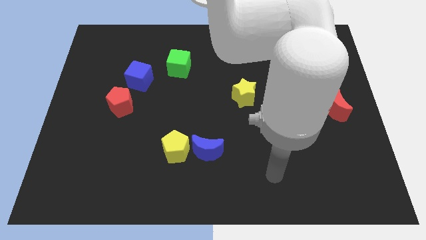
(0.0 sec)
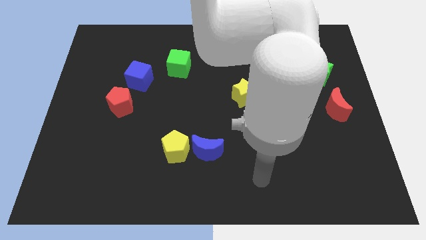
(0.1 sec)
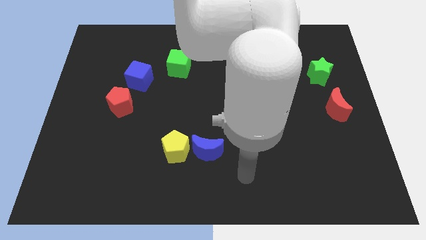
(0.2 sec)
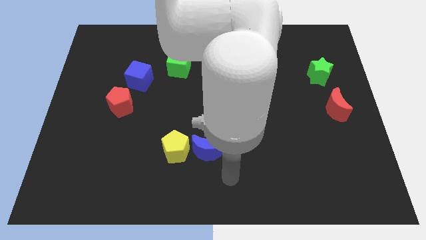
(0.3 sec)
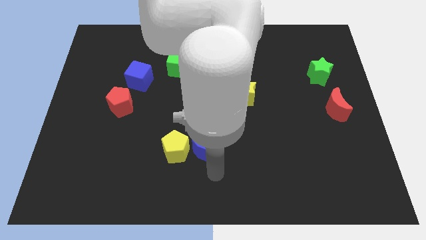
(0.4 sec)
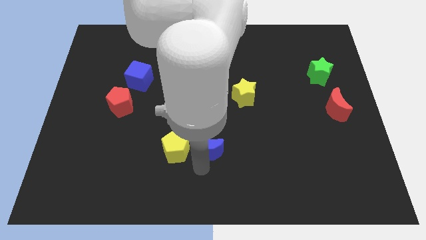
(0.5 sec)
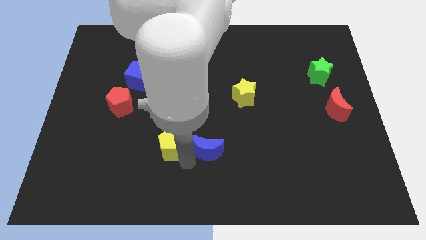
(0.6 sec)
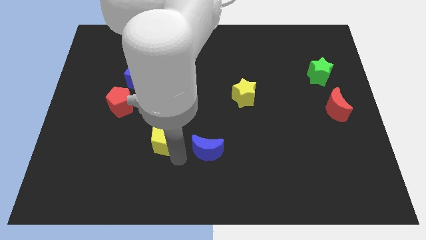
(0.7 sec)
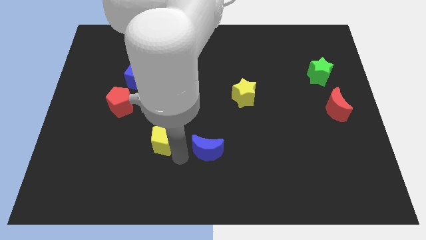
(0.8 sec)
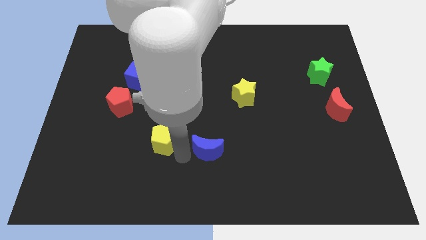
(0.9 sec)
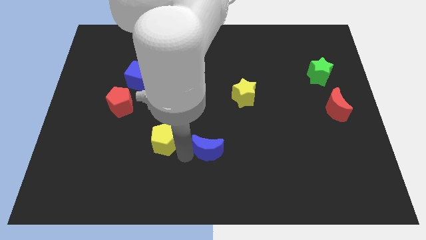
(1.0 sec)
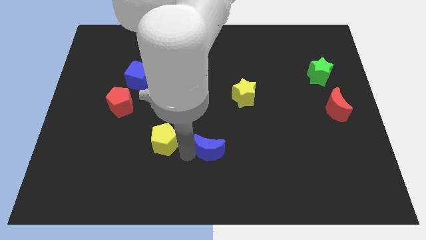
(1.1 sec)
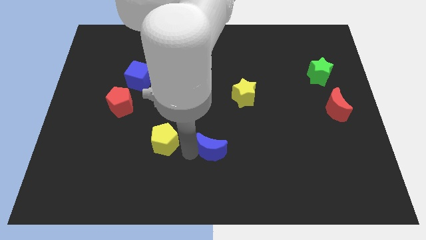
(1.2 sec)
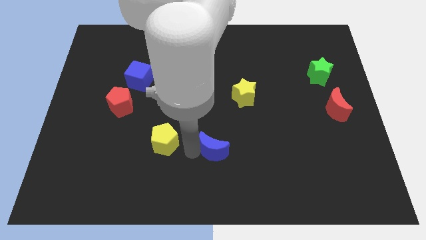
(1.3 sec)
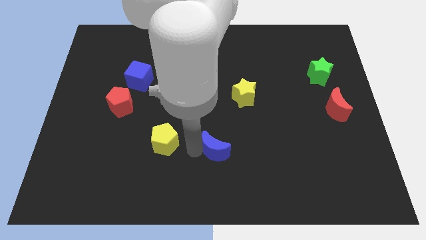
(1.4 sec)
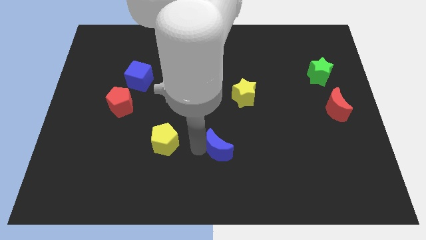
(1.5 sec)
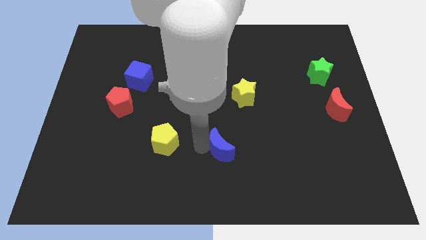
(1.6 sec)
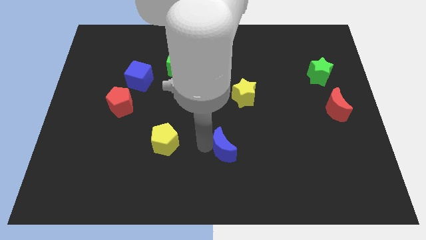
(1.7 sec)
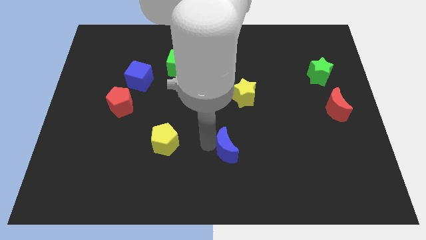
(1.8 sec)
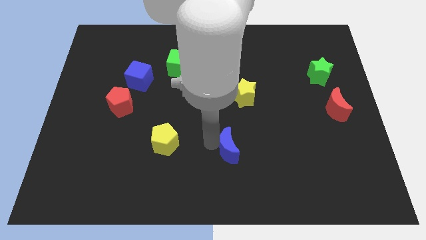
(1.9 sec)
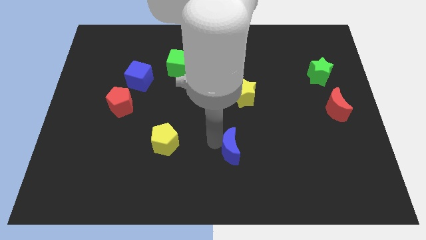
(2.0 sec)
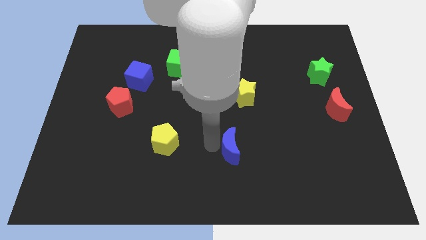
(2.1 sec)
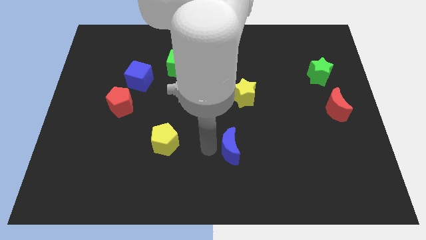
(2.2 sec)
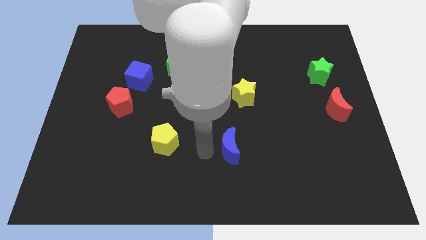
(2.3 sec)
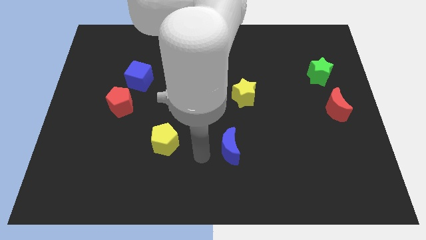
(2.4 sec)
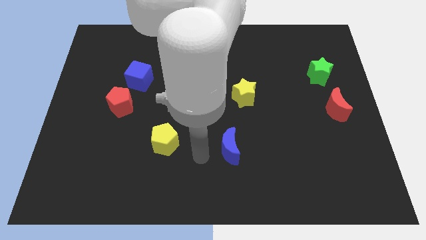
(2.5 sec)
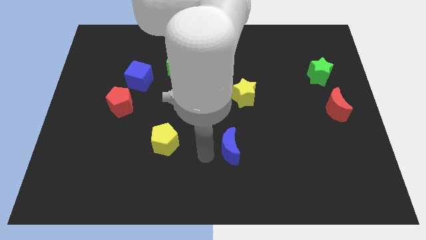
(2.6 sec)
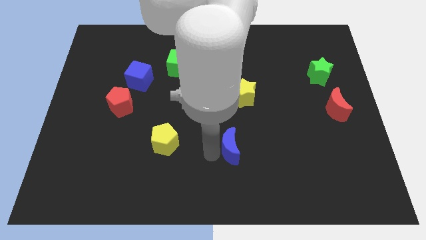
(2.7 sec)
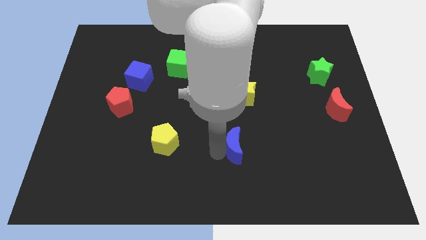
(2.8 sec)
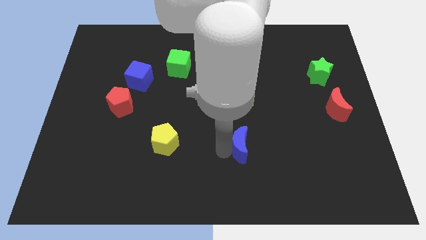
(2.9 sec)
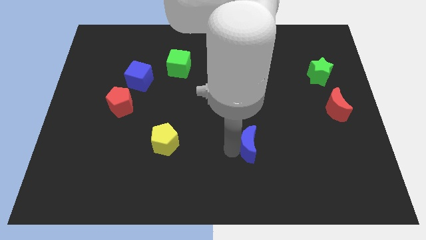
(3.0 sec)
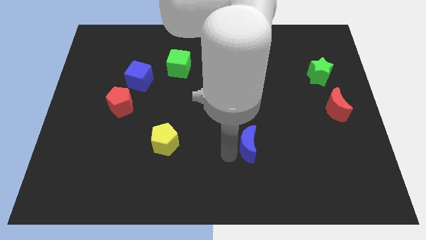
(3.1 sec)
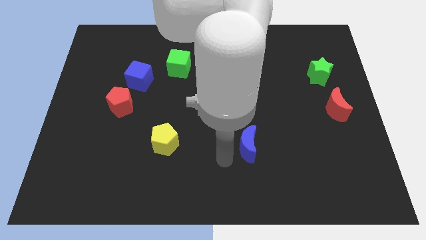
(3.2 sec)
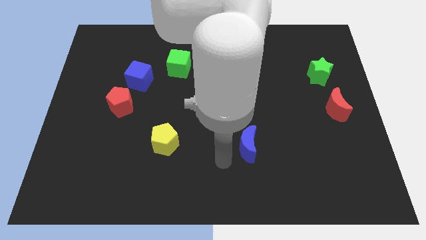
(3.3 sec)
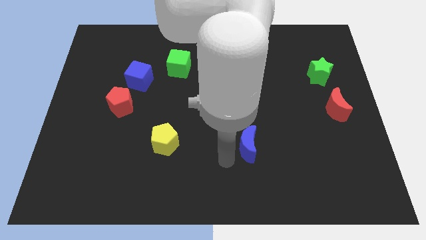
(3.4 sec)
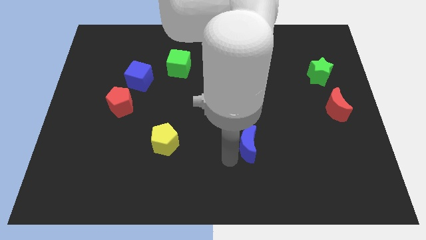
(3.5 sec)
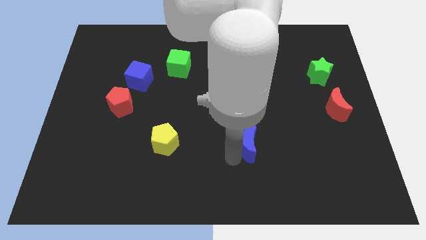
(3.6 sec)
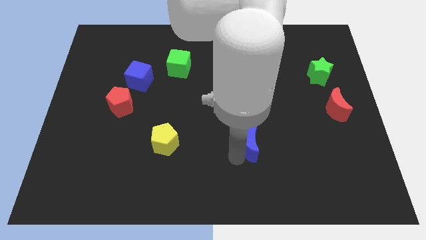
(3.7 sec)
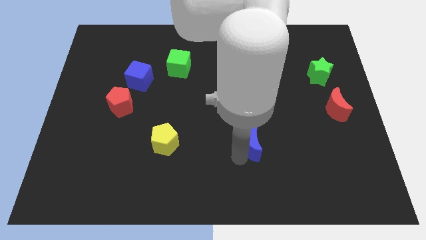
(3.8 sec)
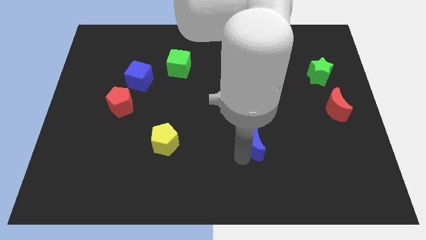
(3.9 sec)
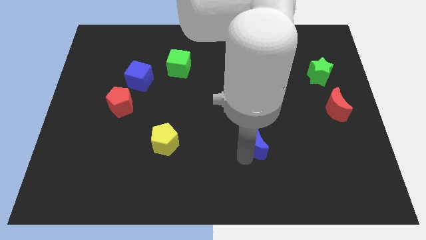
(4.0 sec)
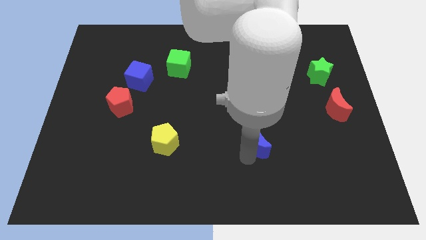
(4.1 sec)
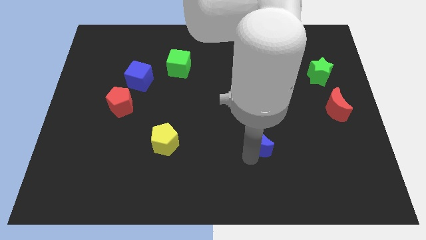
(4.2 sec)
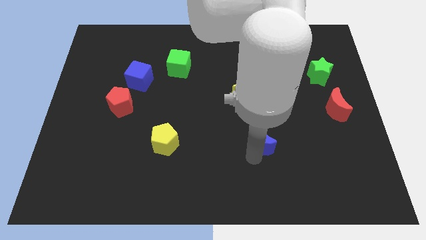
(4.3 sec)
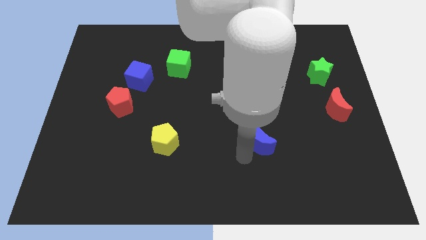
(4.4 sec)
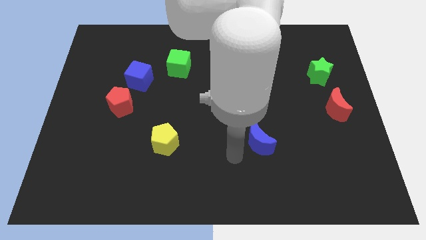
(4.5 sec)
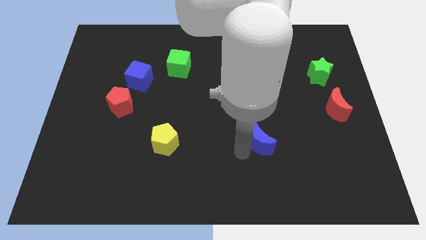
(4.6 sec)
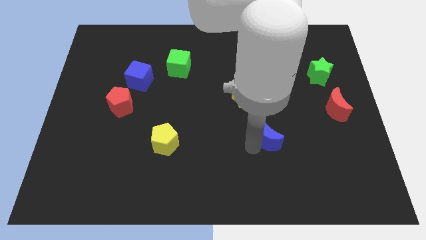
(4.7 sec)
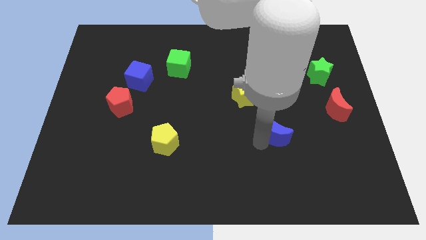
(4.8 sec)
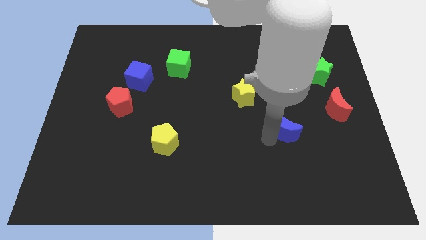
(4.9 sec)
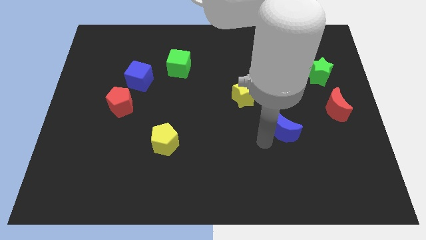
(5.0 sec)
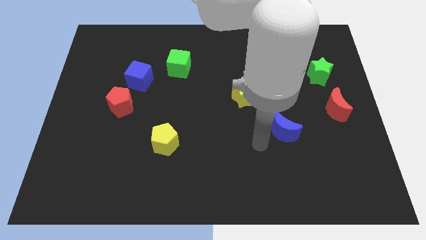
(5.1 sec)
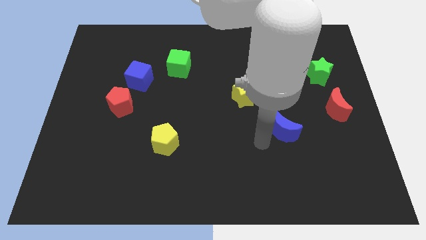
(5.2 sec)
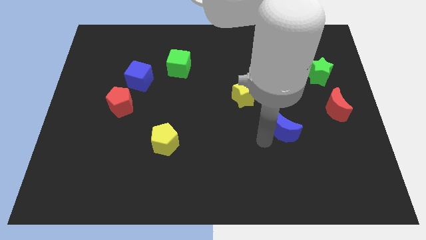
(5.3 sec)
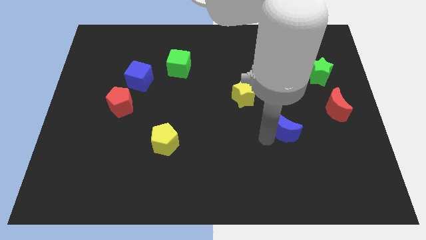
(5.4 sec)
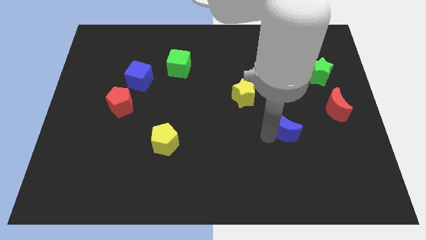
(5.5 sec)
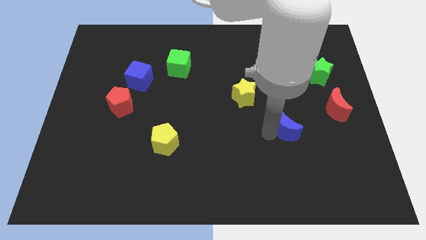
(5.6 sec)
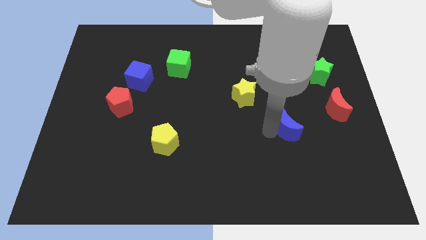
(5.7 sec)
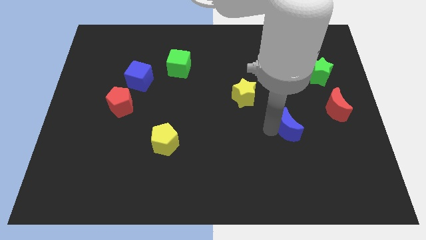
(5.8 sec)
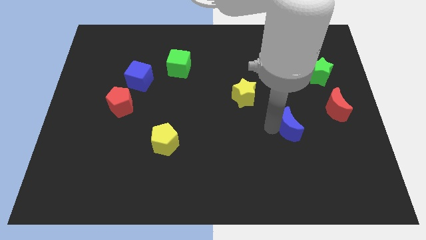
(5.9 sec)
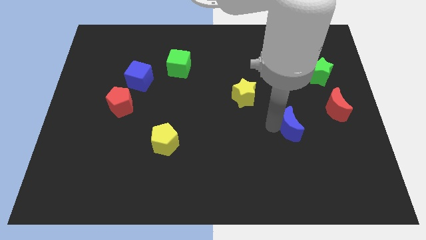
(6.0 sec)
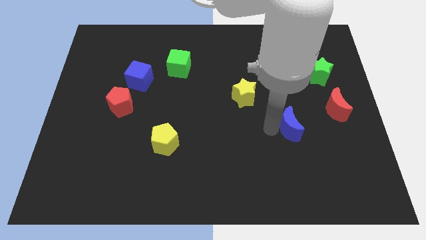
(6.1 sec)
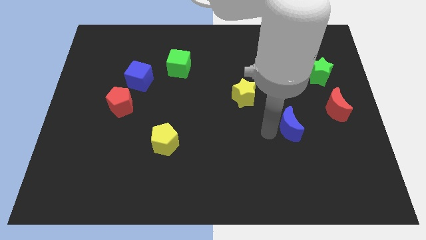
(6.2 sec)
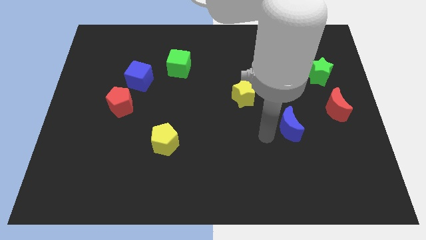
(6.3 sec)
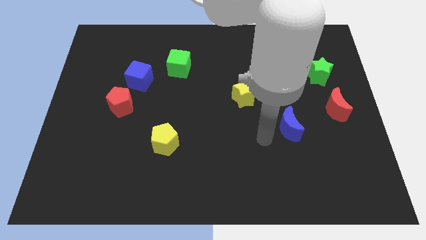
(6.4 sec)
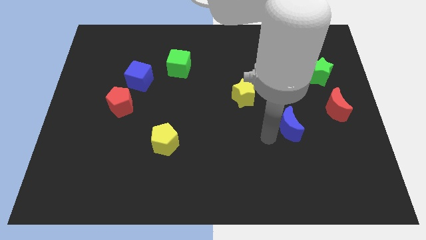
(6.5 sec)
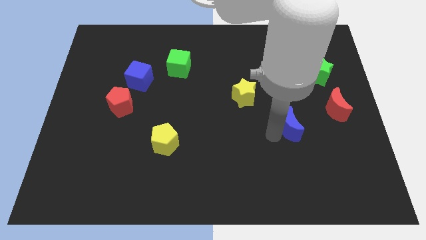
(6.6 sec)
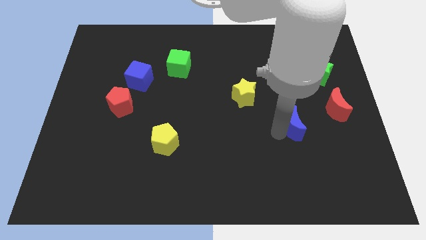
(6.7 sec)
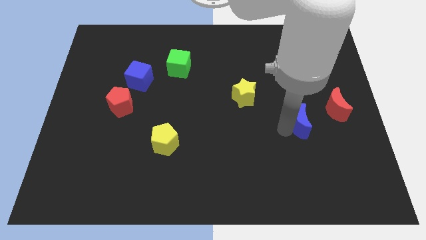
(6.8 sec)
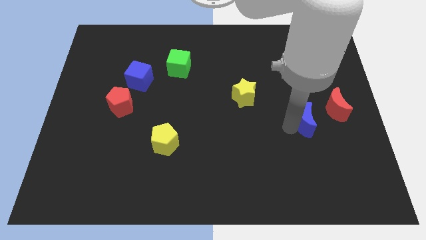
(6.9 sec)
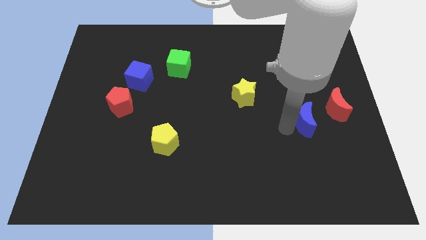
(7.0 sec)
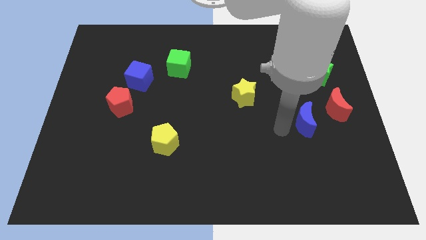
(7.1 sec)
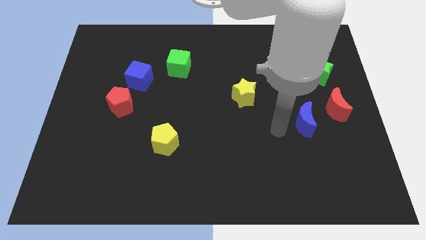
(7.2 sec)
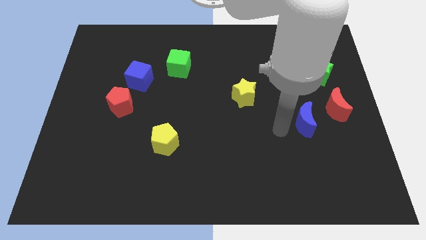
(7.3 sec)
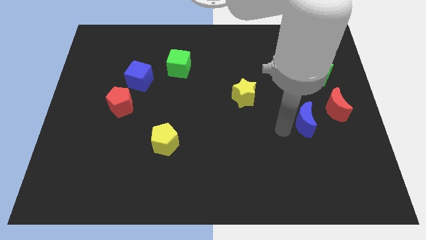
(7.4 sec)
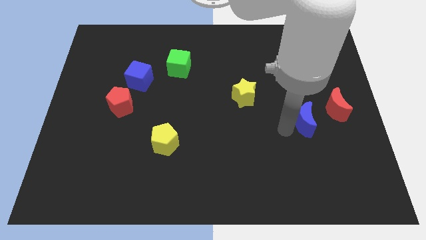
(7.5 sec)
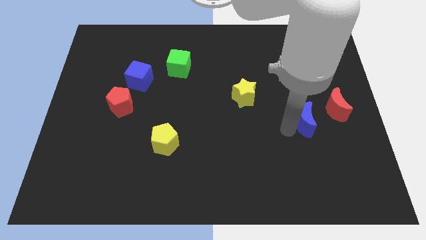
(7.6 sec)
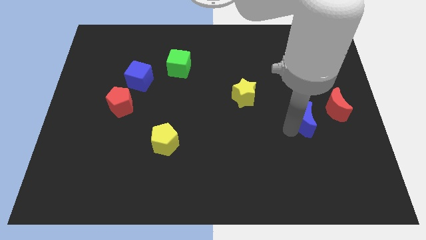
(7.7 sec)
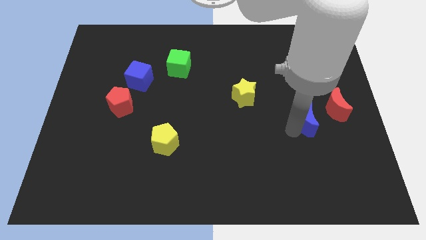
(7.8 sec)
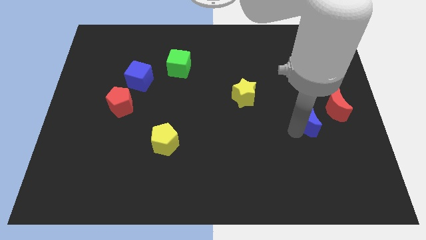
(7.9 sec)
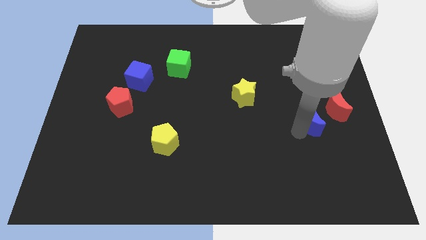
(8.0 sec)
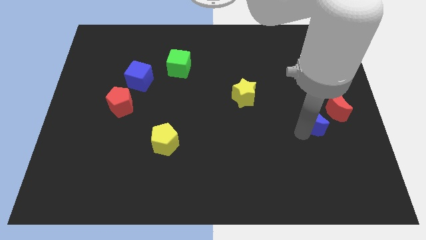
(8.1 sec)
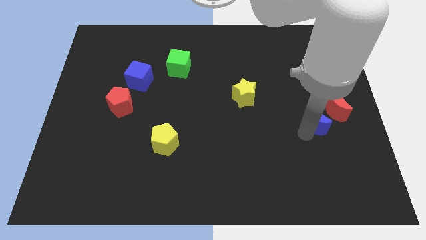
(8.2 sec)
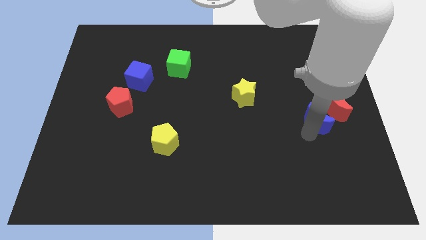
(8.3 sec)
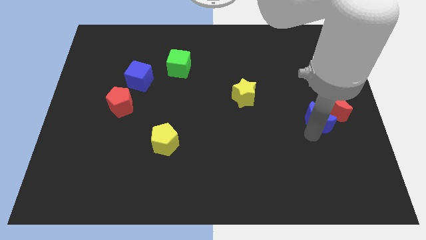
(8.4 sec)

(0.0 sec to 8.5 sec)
push the blue moon towards the red moon
